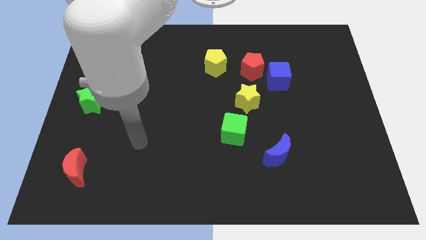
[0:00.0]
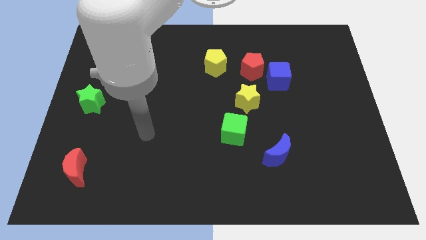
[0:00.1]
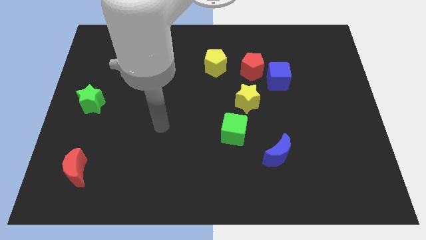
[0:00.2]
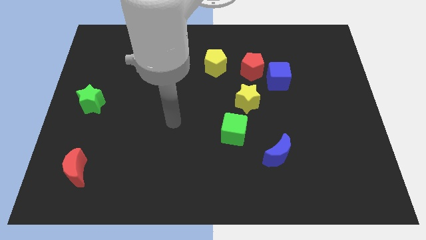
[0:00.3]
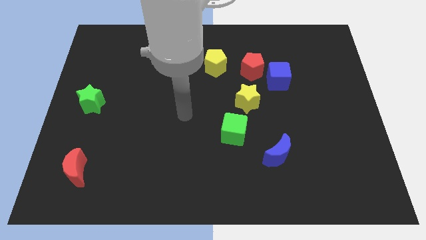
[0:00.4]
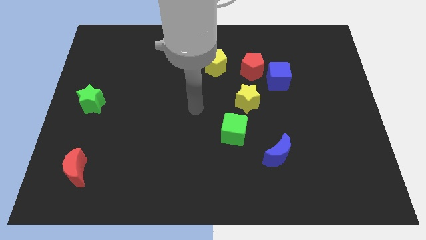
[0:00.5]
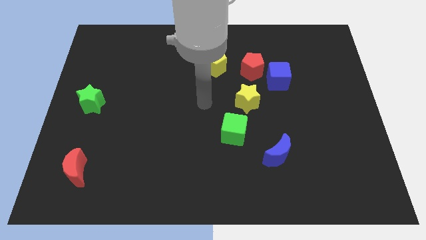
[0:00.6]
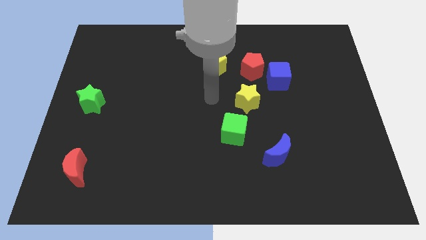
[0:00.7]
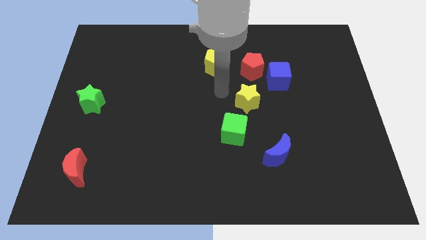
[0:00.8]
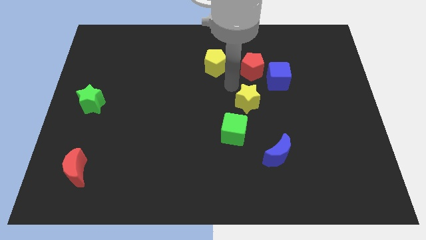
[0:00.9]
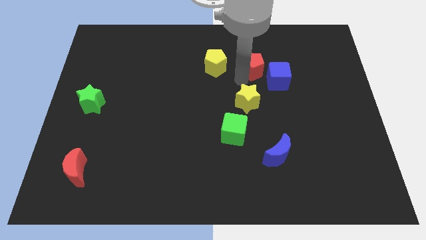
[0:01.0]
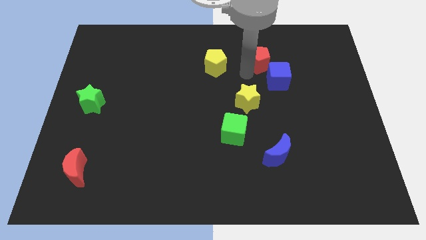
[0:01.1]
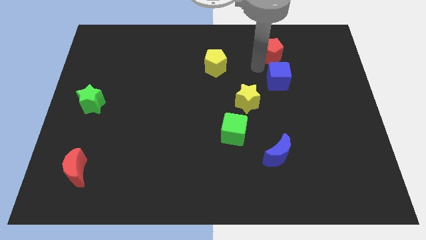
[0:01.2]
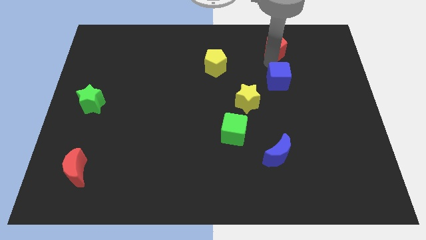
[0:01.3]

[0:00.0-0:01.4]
move the blue cube away from the red pentagon

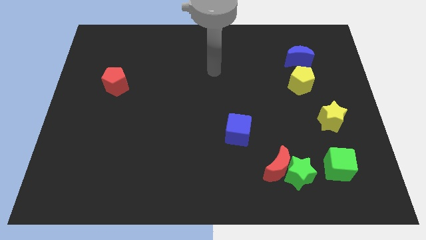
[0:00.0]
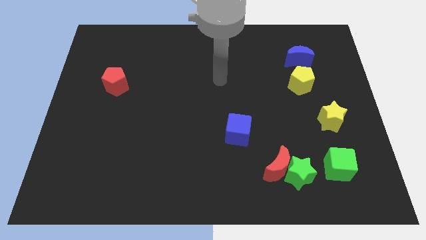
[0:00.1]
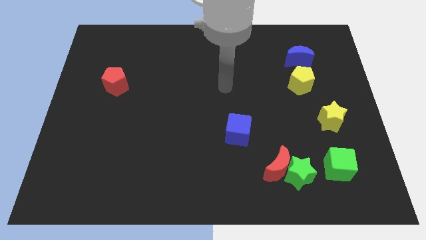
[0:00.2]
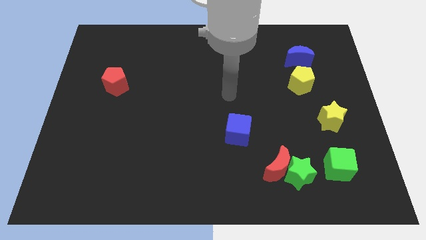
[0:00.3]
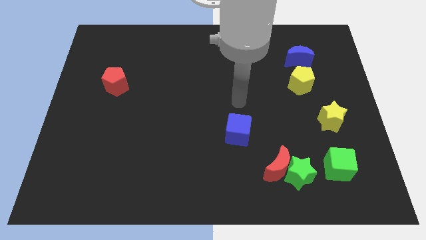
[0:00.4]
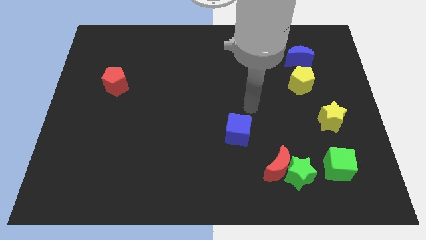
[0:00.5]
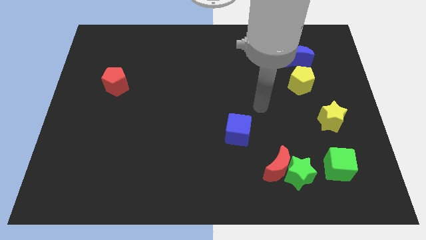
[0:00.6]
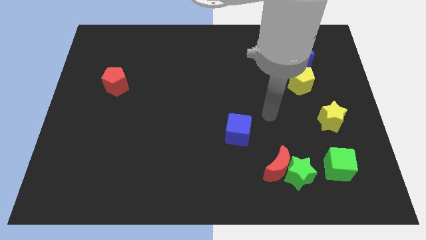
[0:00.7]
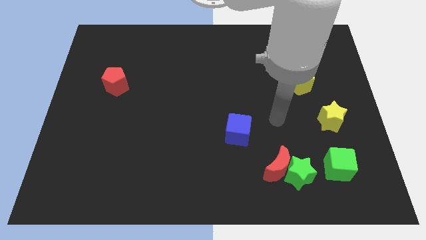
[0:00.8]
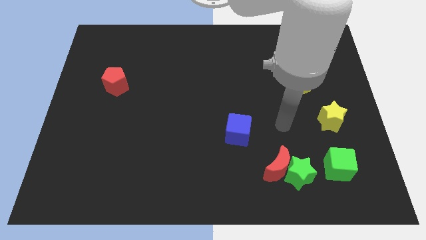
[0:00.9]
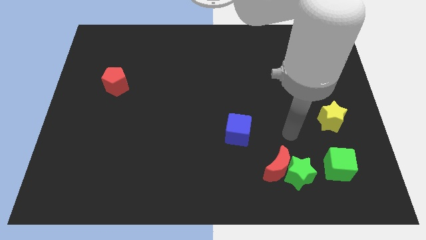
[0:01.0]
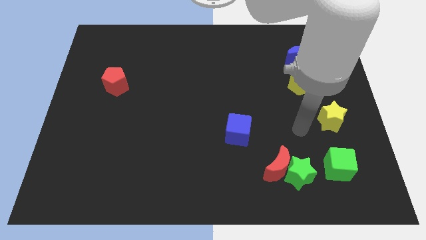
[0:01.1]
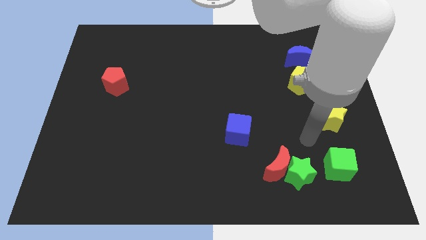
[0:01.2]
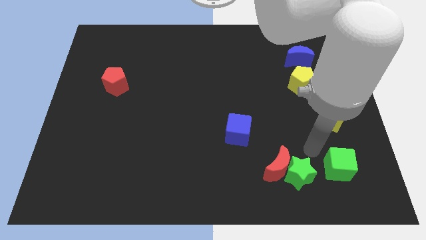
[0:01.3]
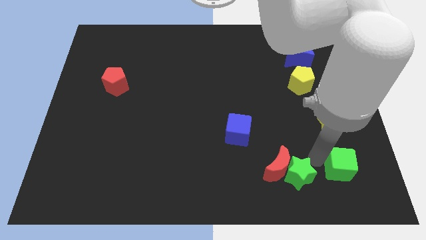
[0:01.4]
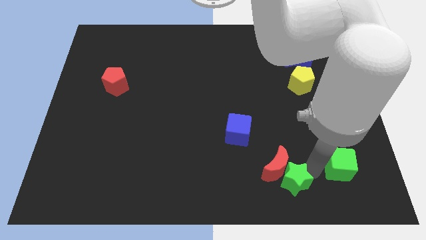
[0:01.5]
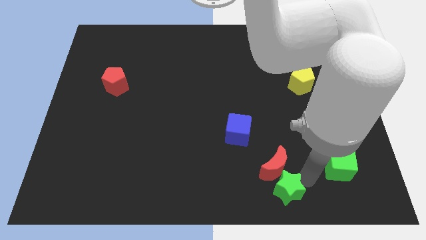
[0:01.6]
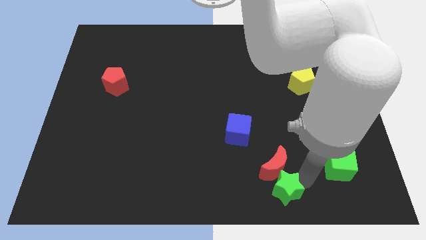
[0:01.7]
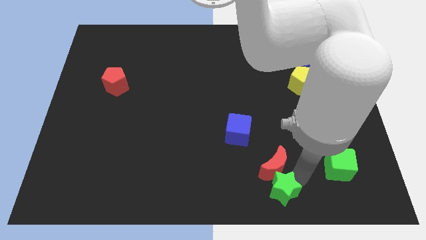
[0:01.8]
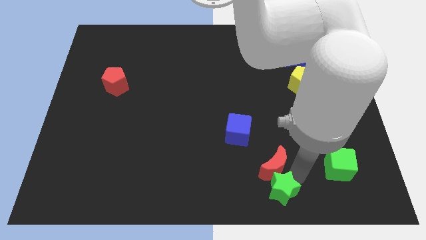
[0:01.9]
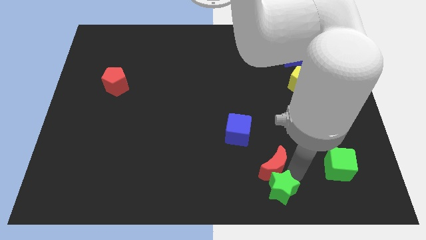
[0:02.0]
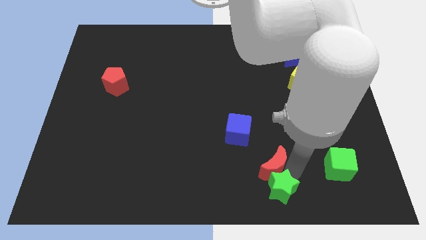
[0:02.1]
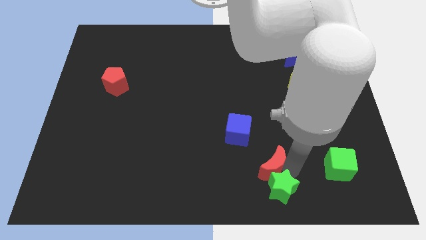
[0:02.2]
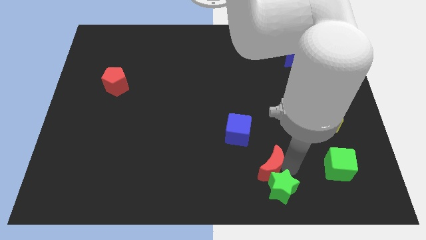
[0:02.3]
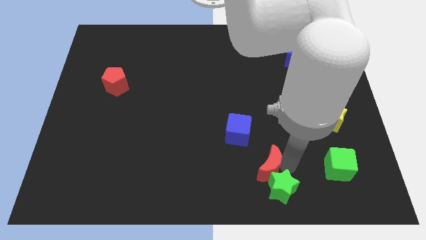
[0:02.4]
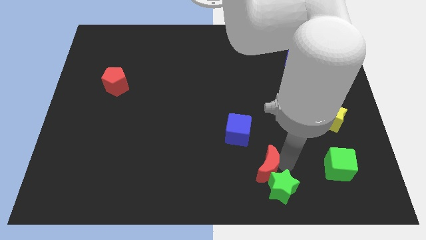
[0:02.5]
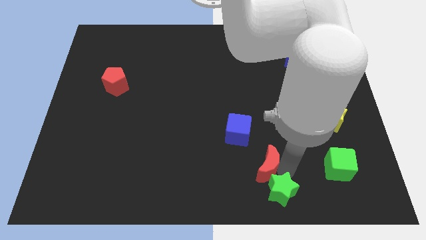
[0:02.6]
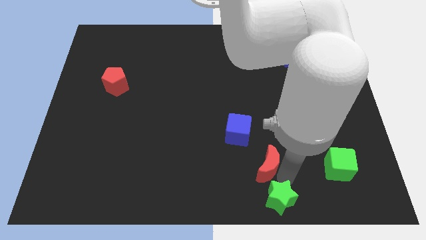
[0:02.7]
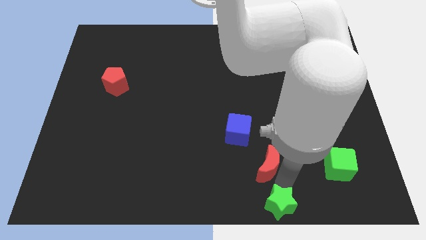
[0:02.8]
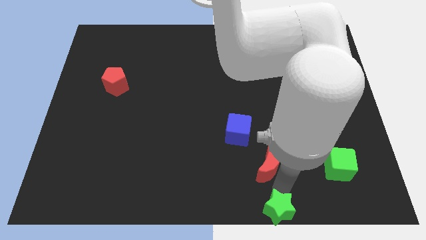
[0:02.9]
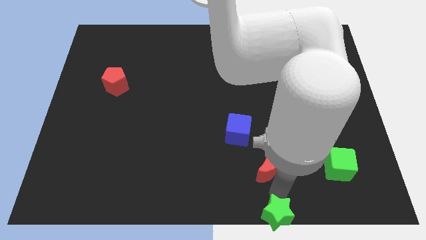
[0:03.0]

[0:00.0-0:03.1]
move the red moon away from the green star

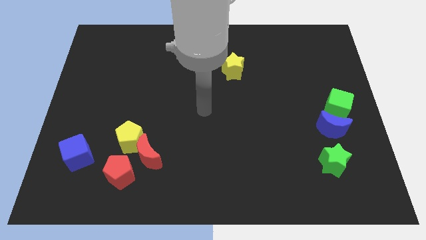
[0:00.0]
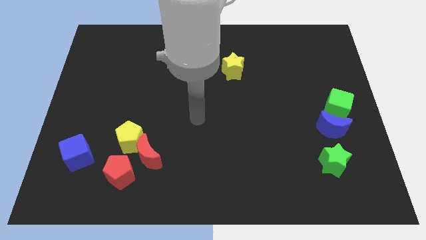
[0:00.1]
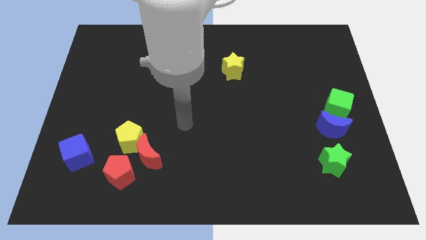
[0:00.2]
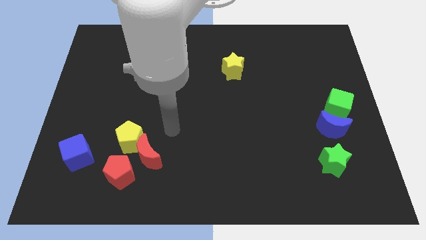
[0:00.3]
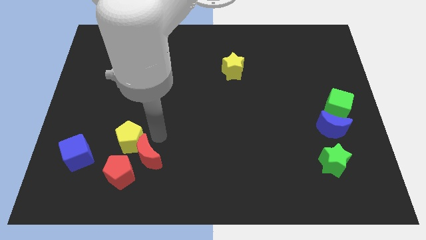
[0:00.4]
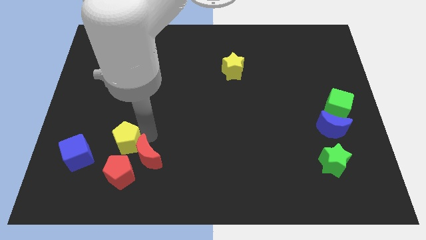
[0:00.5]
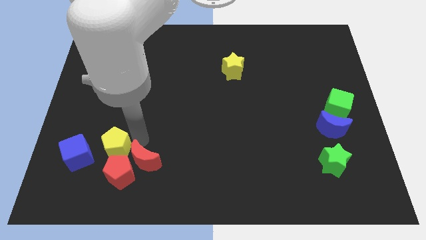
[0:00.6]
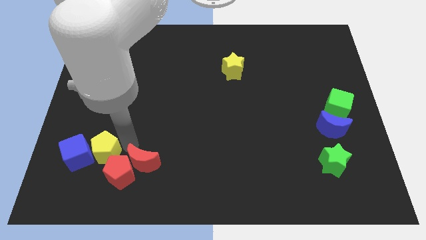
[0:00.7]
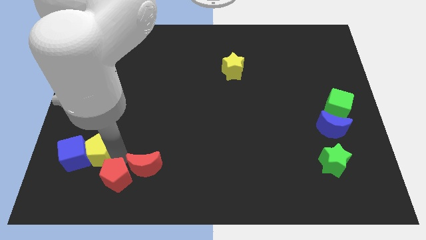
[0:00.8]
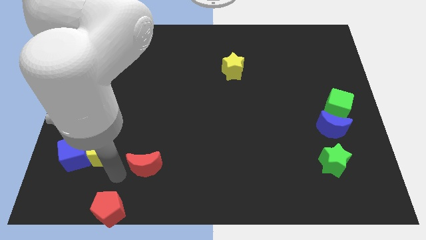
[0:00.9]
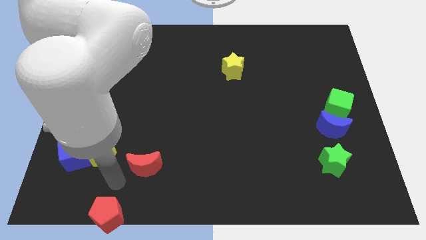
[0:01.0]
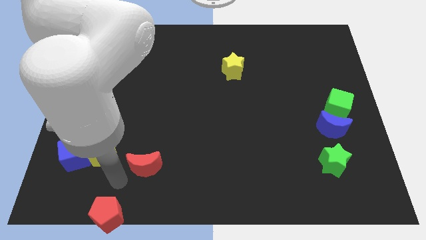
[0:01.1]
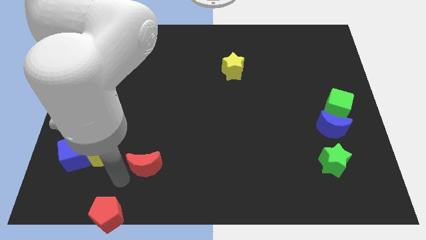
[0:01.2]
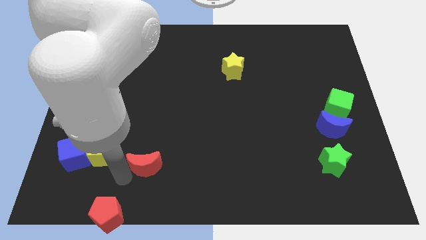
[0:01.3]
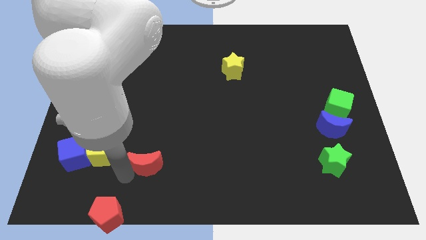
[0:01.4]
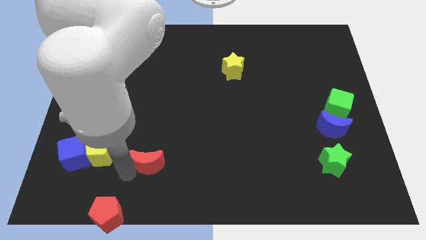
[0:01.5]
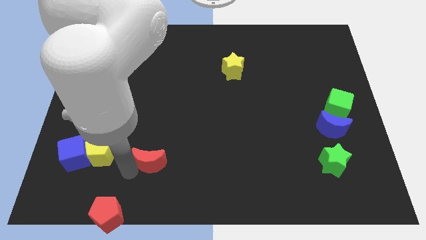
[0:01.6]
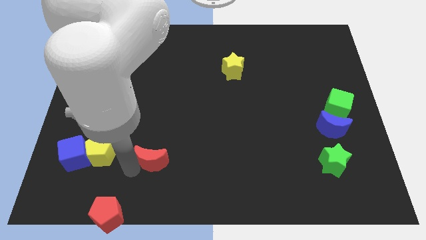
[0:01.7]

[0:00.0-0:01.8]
pull the red moon apart from the yellow pentagon and red pentagon

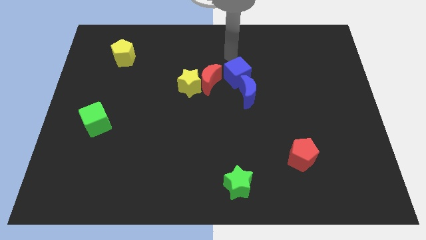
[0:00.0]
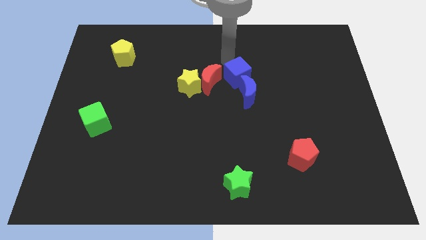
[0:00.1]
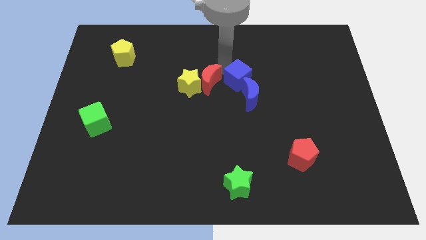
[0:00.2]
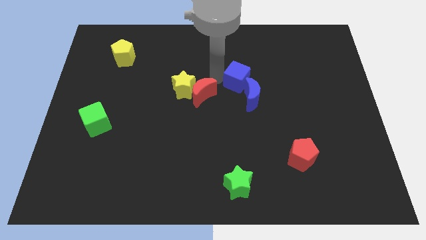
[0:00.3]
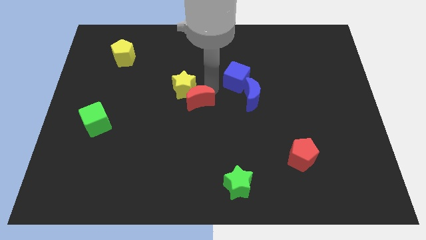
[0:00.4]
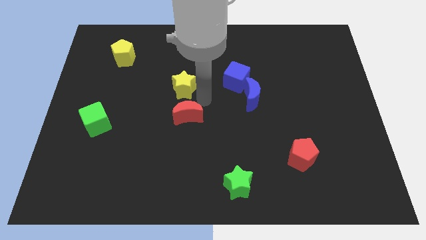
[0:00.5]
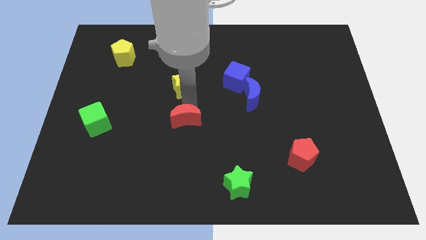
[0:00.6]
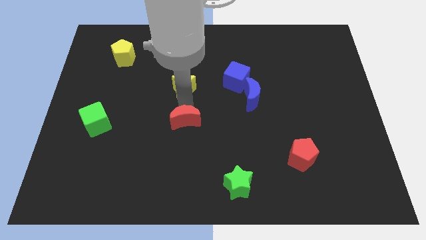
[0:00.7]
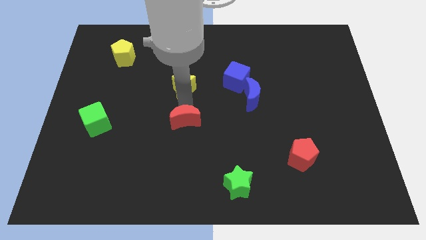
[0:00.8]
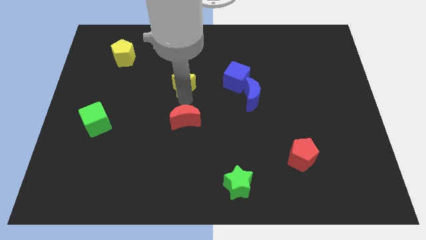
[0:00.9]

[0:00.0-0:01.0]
pull the yellow star apart from the red moon

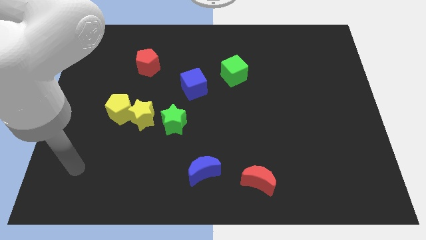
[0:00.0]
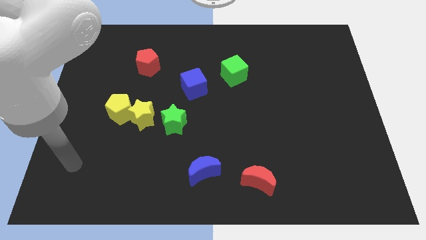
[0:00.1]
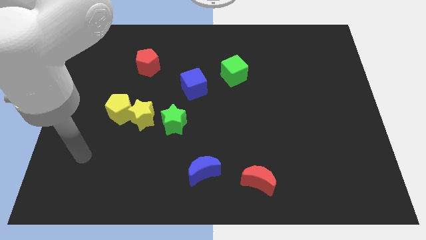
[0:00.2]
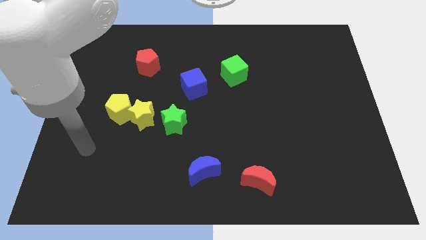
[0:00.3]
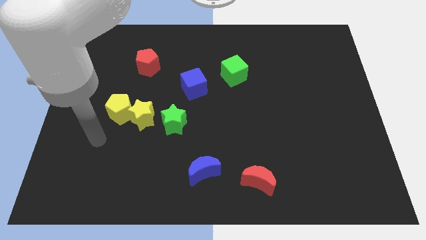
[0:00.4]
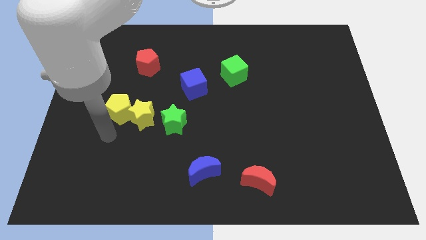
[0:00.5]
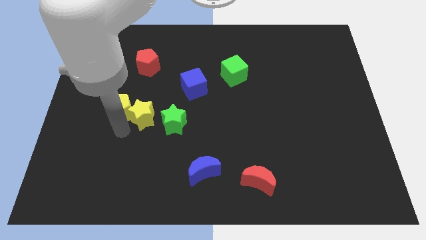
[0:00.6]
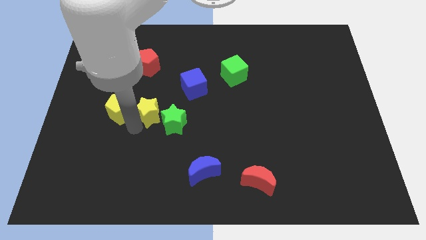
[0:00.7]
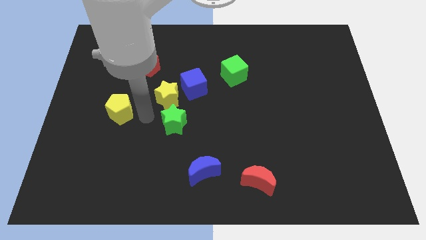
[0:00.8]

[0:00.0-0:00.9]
move the yellow pentagon away from the yellow star

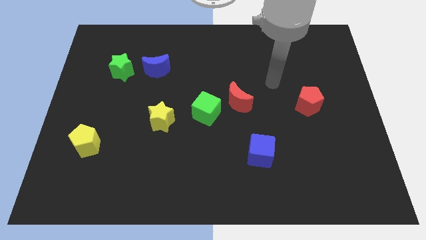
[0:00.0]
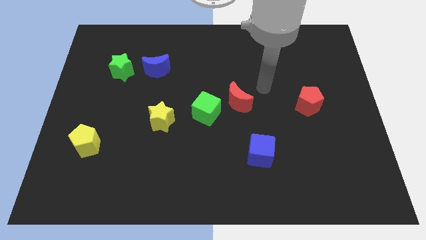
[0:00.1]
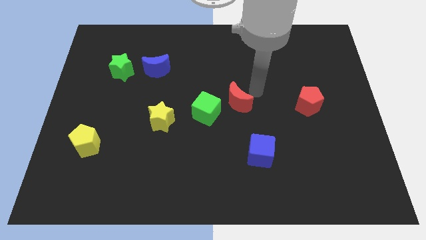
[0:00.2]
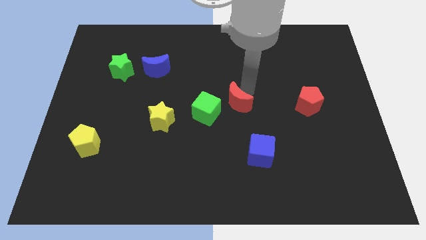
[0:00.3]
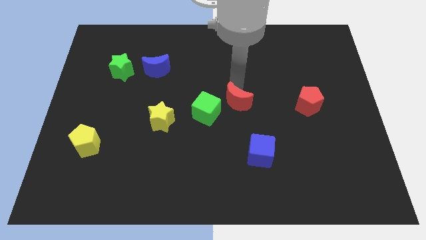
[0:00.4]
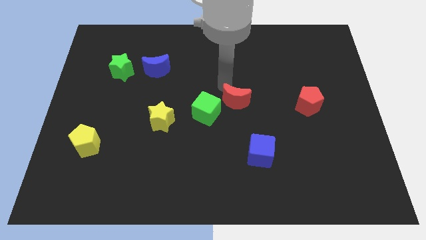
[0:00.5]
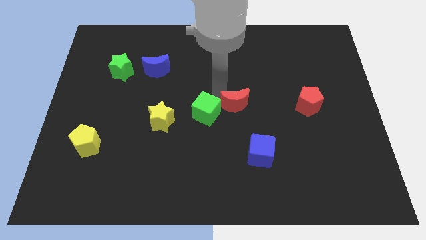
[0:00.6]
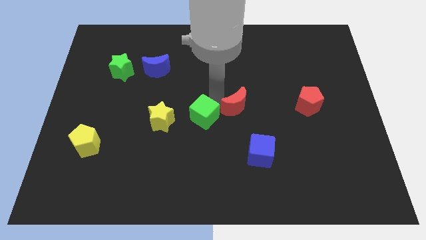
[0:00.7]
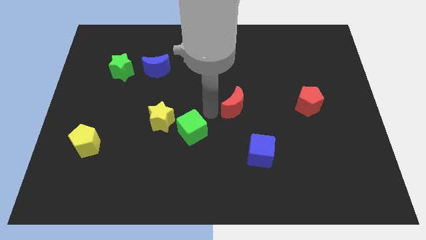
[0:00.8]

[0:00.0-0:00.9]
pull the red moon apart from the green cube

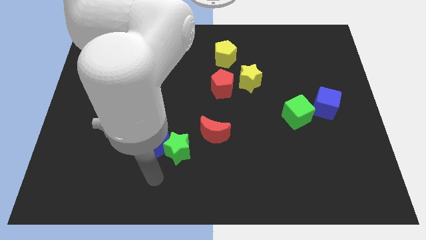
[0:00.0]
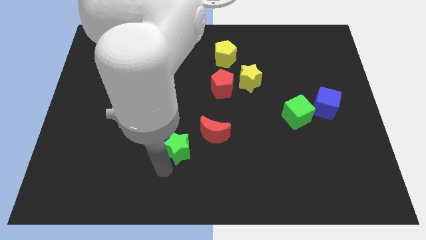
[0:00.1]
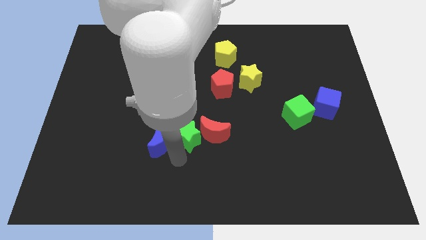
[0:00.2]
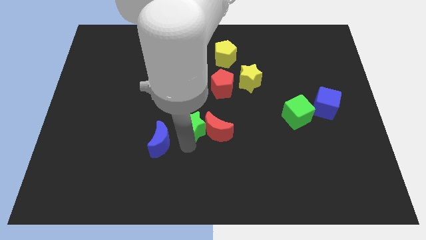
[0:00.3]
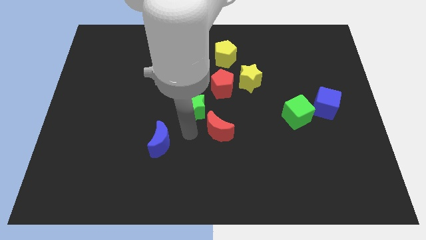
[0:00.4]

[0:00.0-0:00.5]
move the blue moon away from the green star
